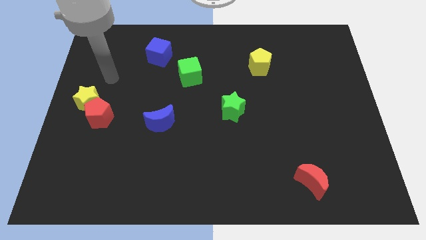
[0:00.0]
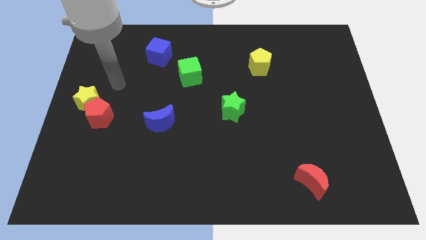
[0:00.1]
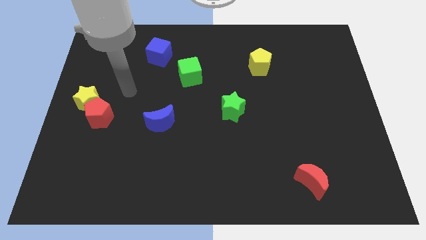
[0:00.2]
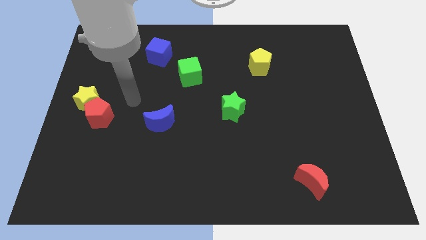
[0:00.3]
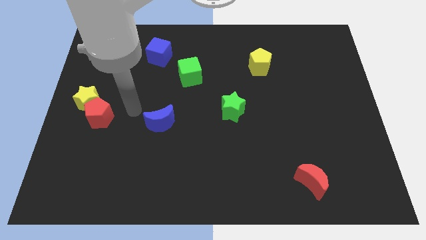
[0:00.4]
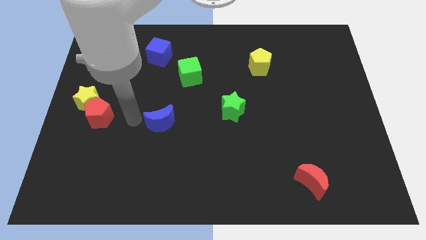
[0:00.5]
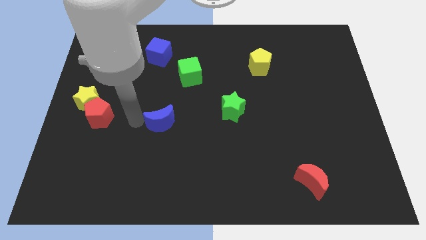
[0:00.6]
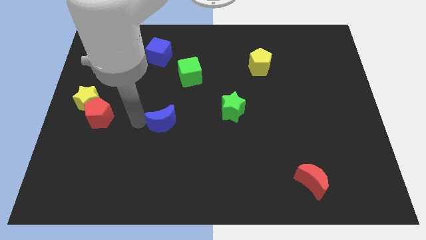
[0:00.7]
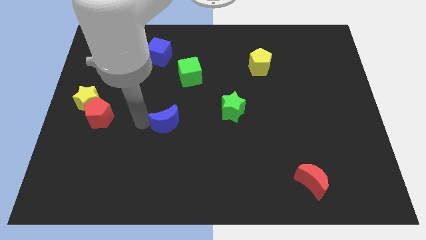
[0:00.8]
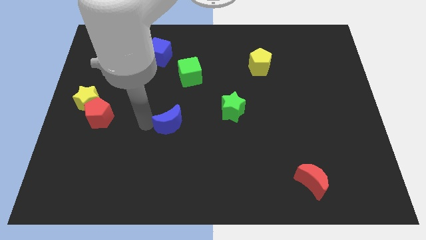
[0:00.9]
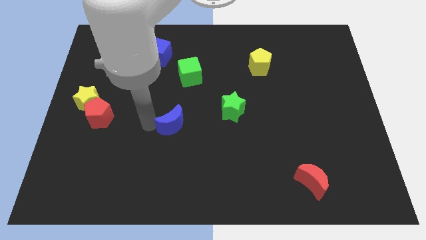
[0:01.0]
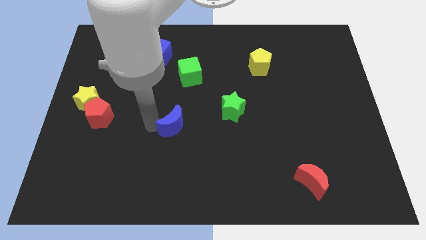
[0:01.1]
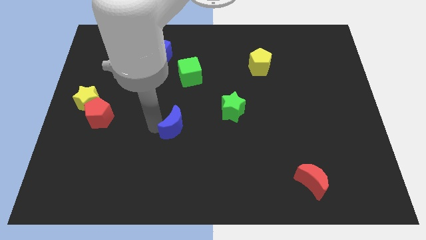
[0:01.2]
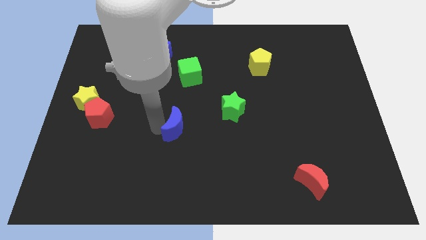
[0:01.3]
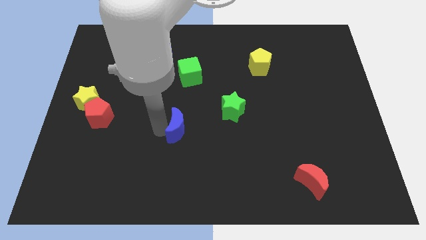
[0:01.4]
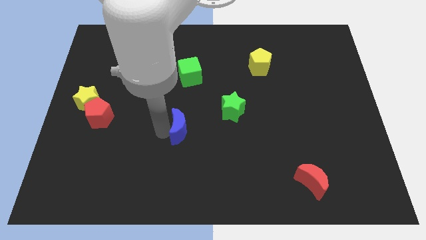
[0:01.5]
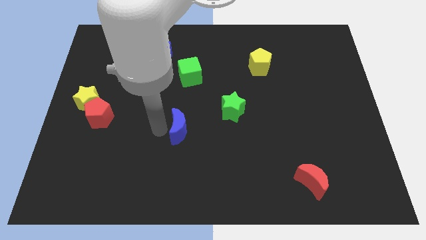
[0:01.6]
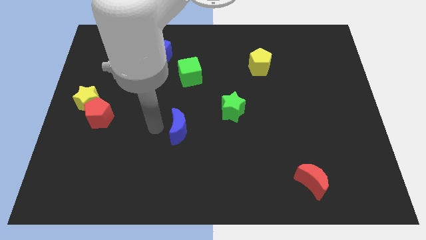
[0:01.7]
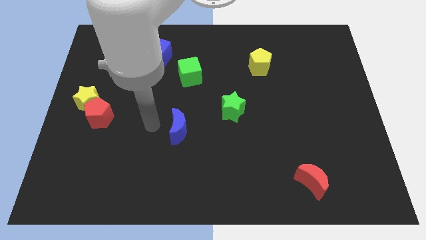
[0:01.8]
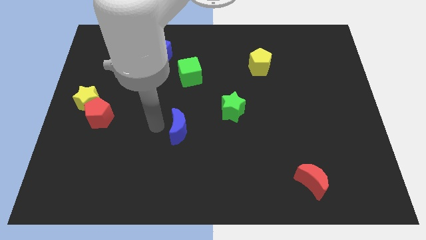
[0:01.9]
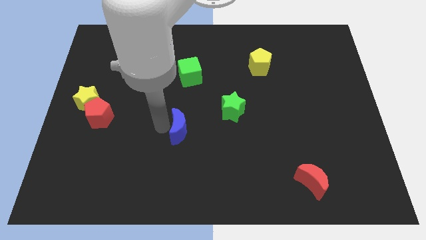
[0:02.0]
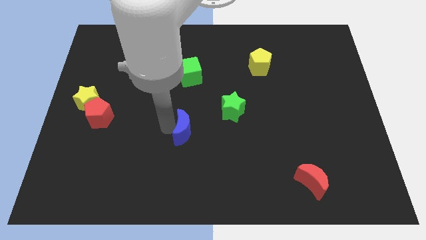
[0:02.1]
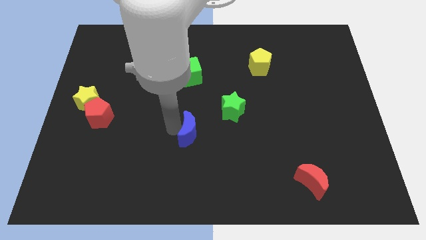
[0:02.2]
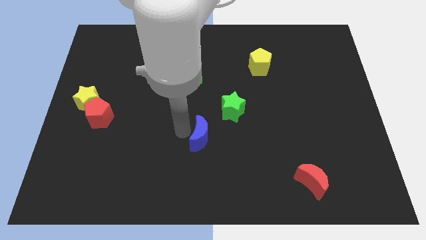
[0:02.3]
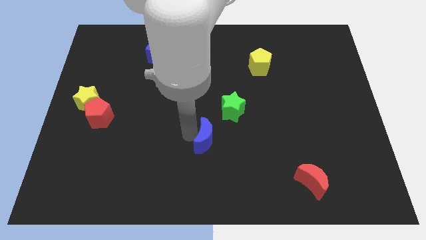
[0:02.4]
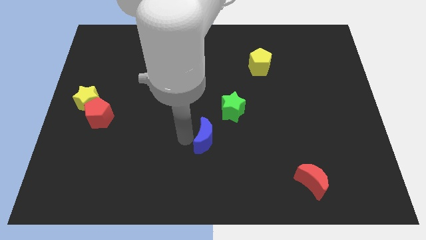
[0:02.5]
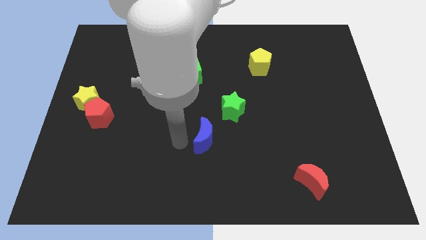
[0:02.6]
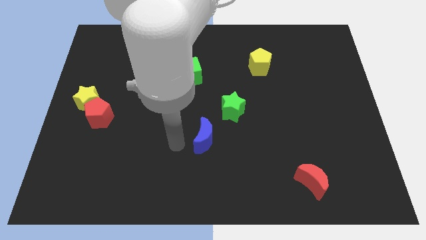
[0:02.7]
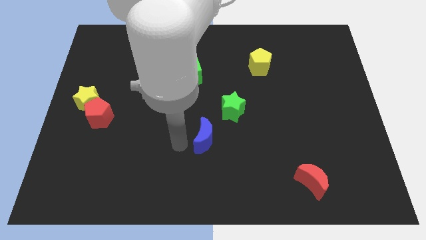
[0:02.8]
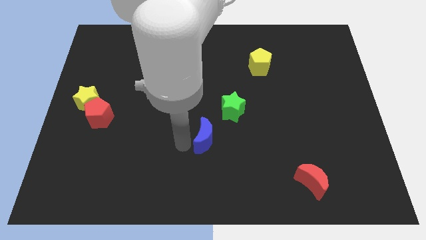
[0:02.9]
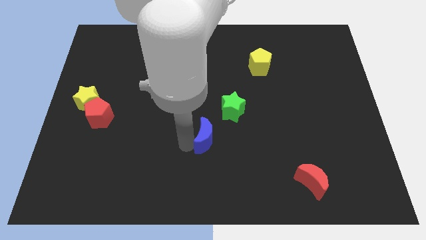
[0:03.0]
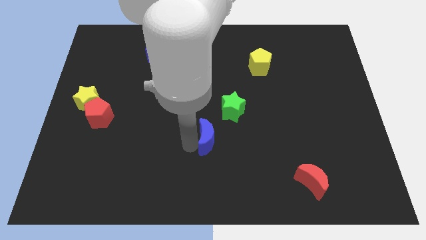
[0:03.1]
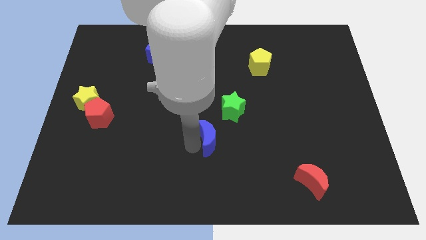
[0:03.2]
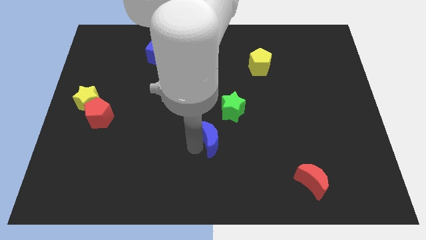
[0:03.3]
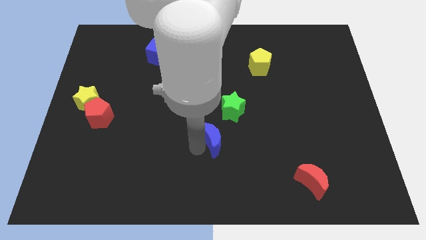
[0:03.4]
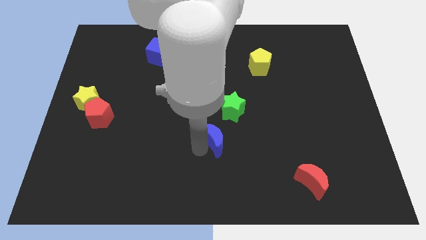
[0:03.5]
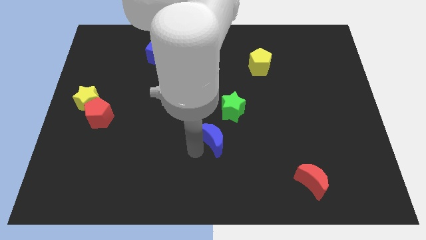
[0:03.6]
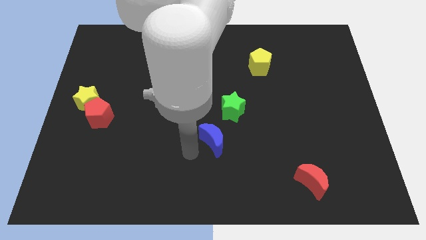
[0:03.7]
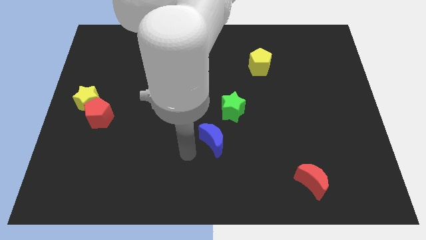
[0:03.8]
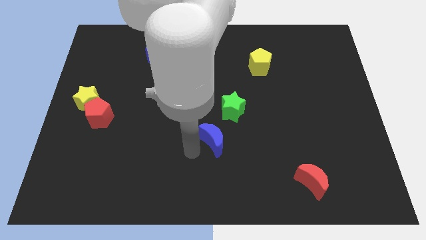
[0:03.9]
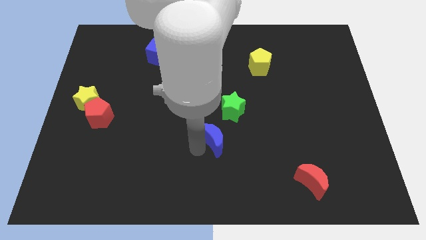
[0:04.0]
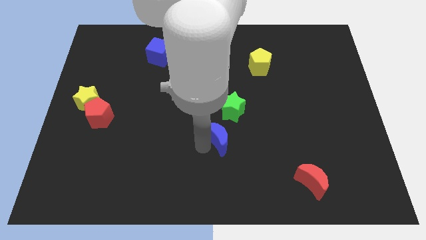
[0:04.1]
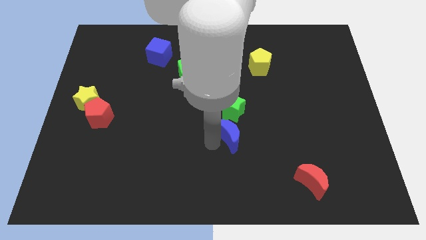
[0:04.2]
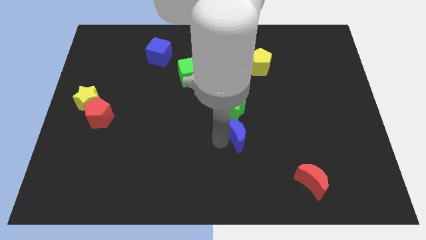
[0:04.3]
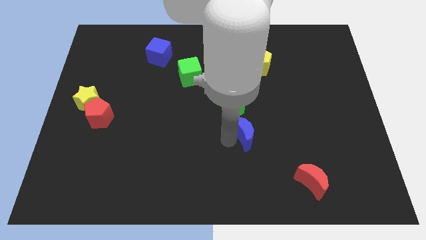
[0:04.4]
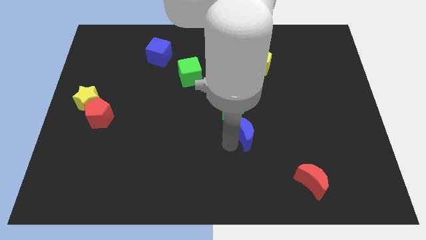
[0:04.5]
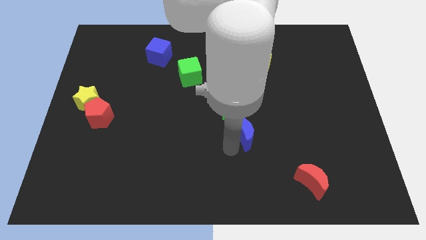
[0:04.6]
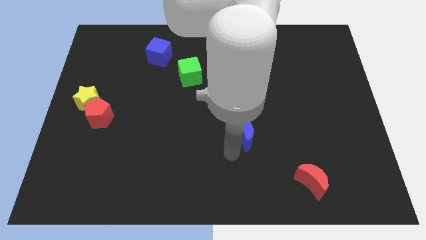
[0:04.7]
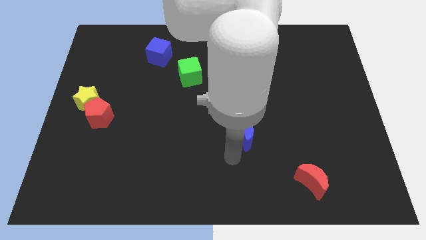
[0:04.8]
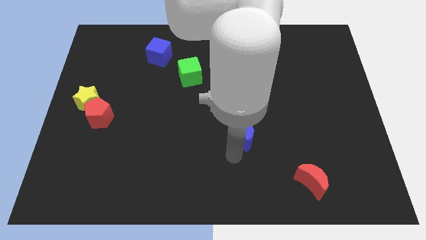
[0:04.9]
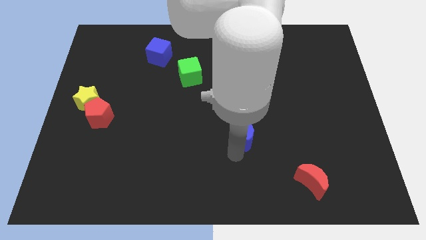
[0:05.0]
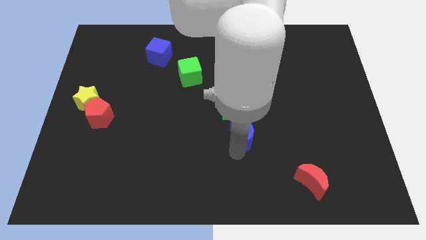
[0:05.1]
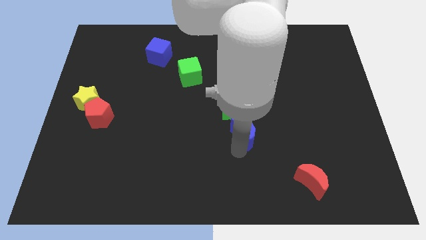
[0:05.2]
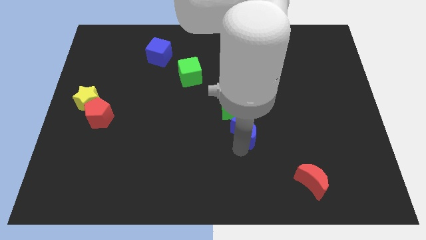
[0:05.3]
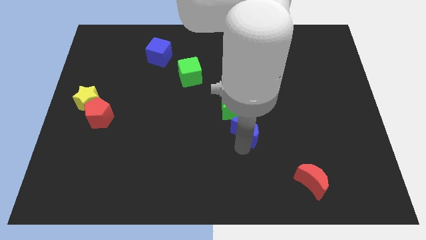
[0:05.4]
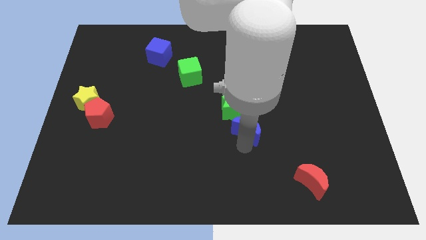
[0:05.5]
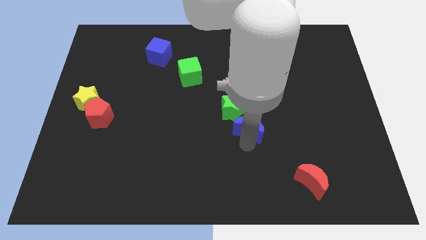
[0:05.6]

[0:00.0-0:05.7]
push the blue moon right

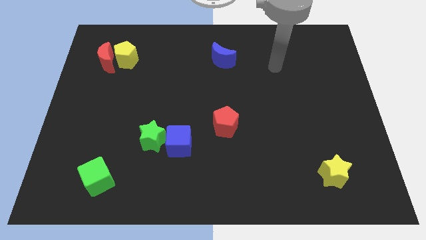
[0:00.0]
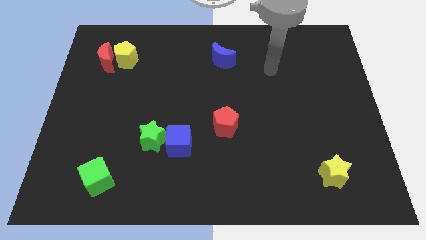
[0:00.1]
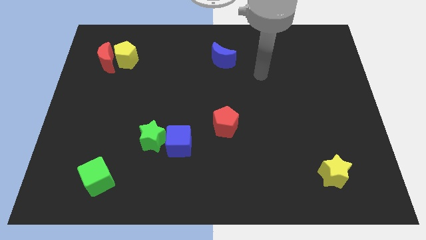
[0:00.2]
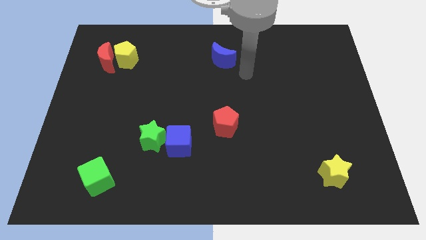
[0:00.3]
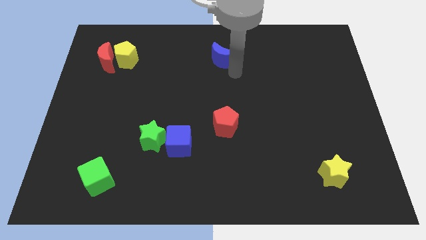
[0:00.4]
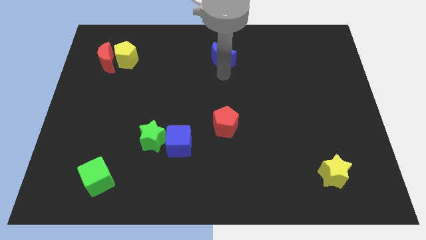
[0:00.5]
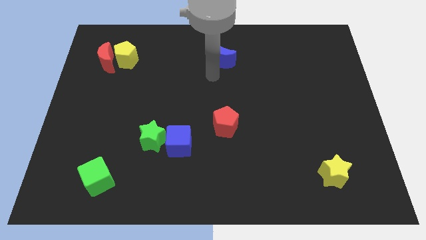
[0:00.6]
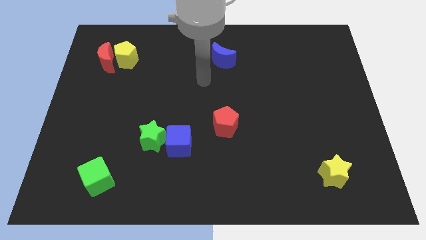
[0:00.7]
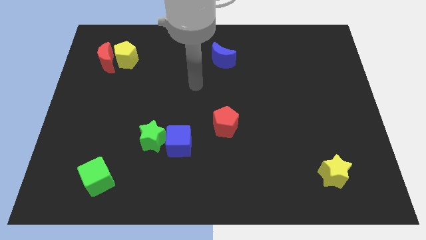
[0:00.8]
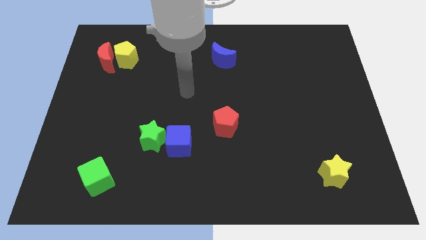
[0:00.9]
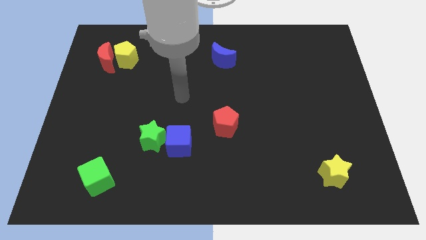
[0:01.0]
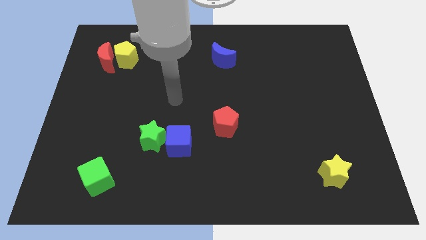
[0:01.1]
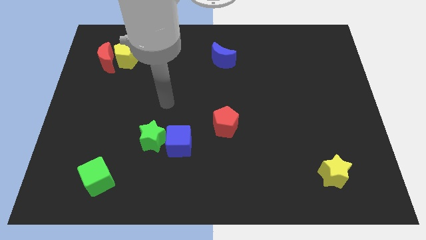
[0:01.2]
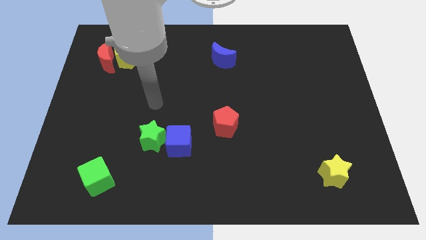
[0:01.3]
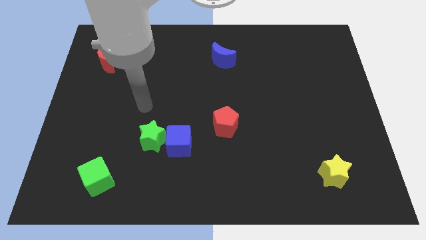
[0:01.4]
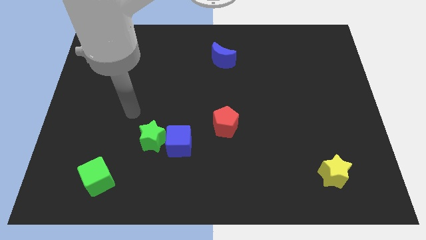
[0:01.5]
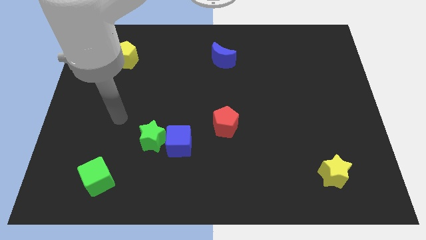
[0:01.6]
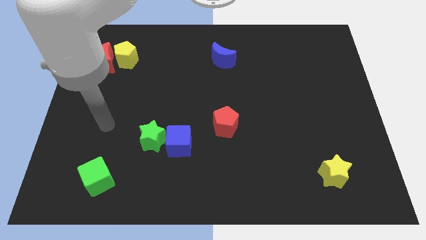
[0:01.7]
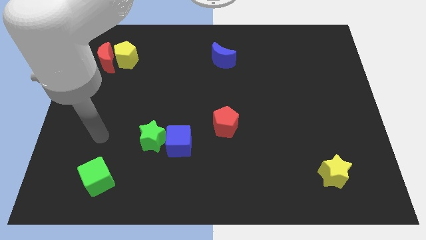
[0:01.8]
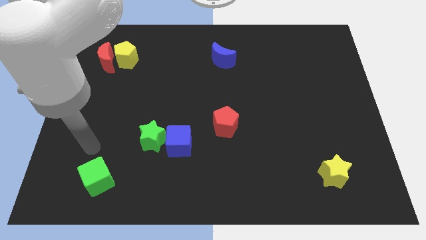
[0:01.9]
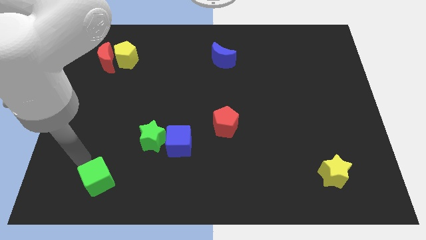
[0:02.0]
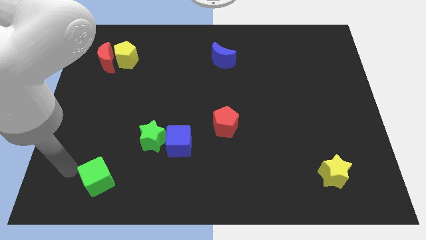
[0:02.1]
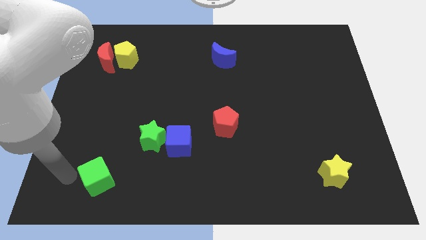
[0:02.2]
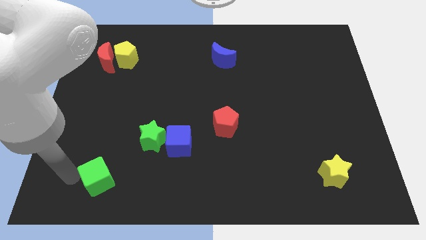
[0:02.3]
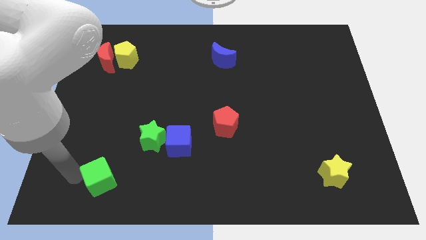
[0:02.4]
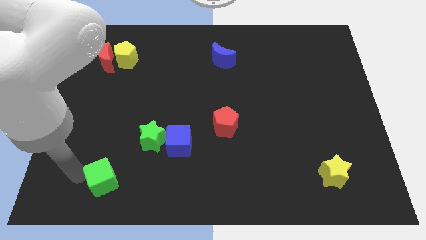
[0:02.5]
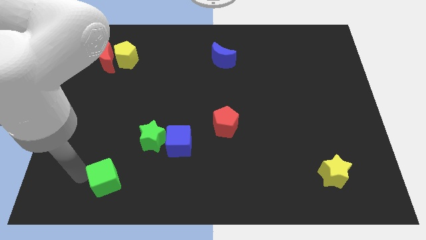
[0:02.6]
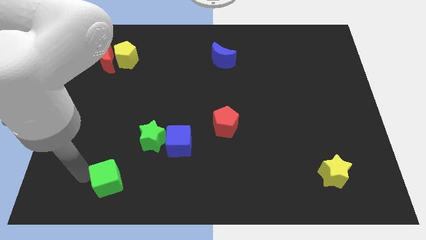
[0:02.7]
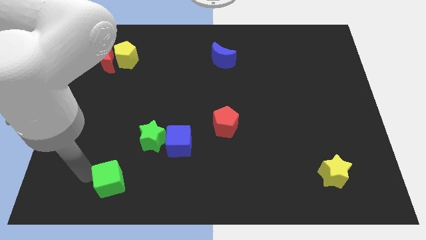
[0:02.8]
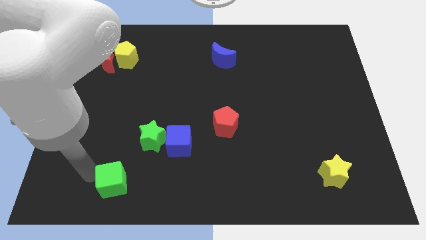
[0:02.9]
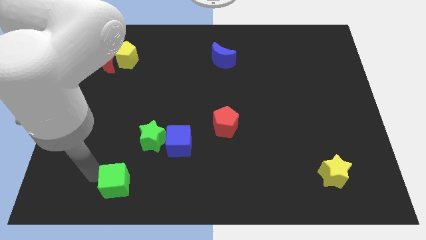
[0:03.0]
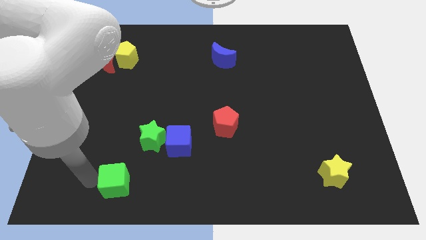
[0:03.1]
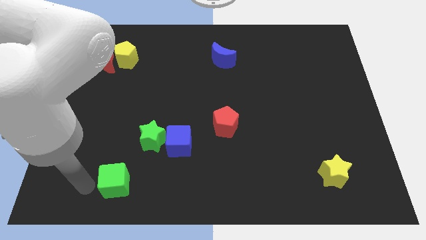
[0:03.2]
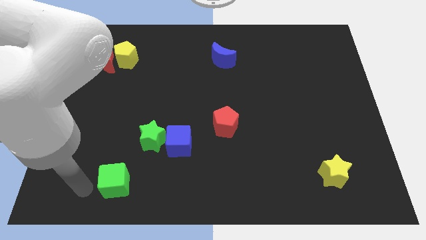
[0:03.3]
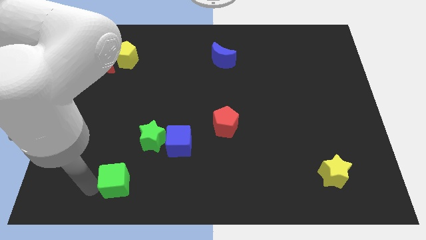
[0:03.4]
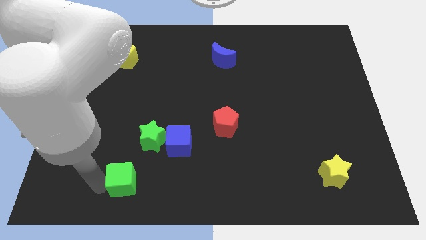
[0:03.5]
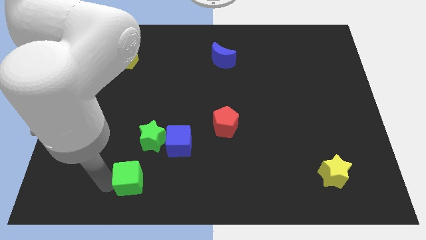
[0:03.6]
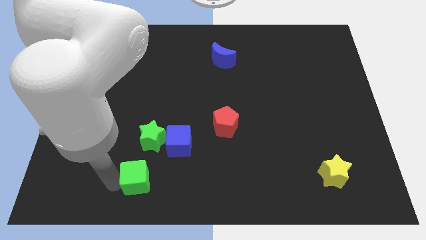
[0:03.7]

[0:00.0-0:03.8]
slightly move the green cube right
